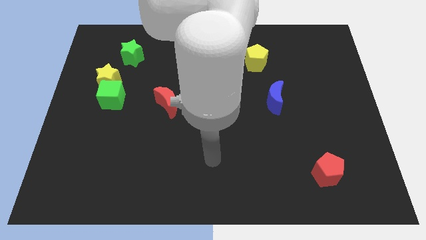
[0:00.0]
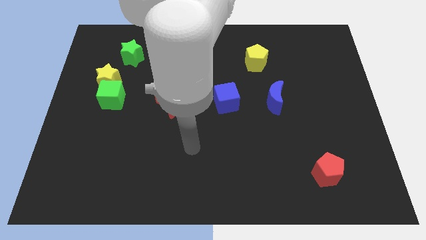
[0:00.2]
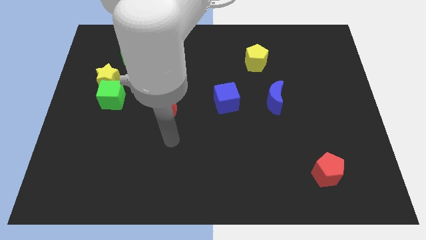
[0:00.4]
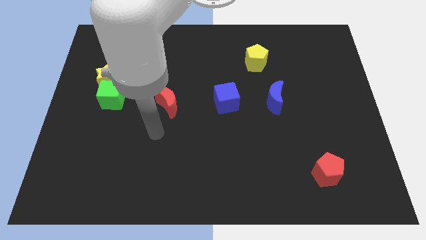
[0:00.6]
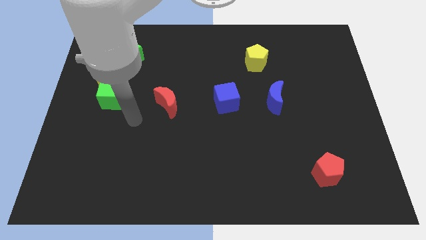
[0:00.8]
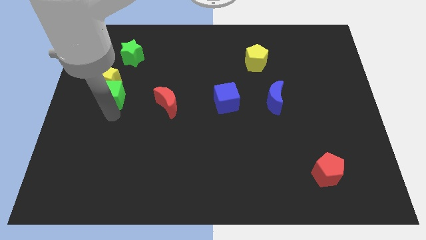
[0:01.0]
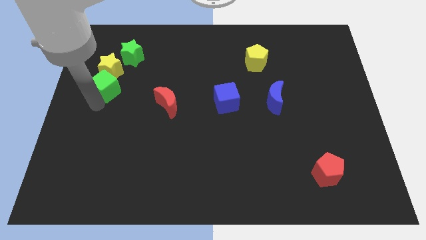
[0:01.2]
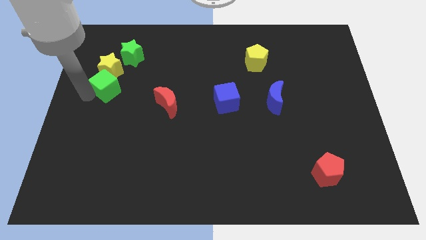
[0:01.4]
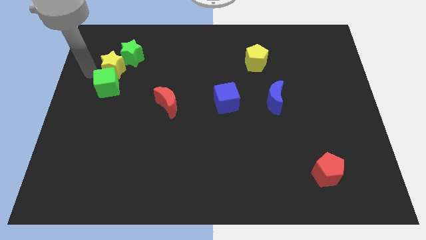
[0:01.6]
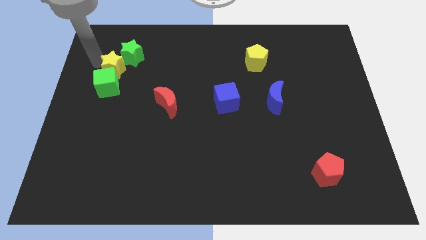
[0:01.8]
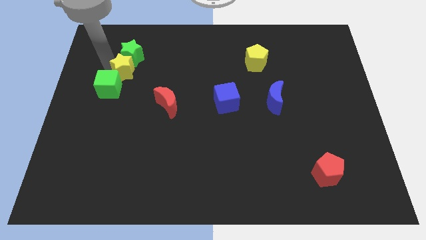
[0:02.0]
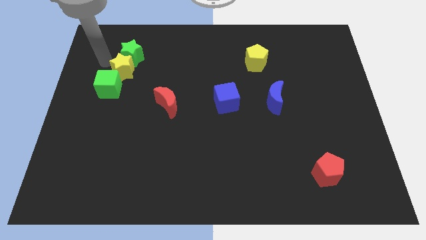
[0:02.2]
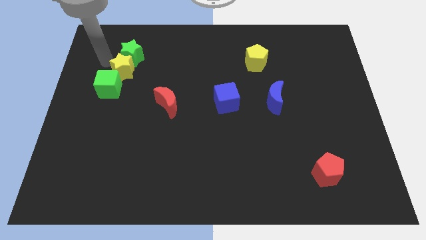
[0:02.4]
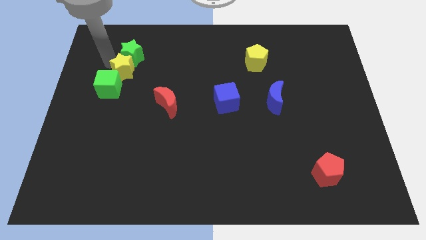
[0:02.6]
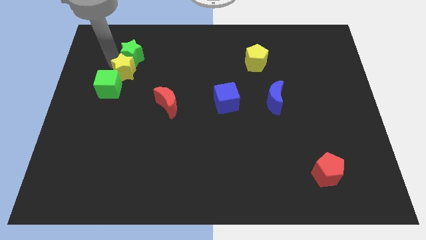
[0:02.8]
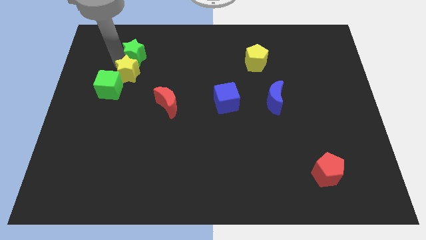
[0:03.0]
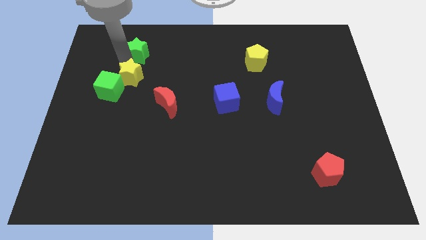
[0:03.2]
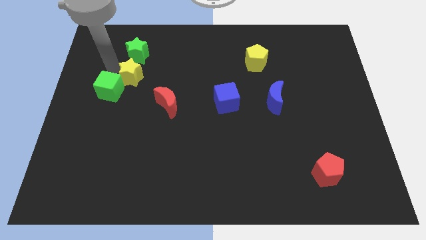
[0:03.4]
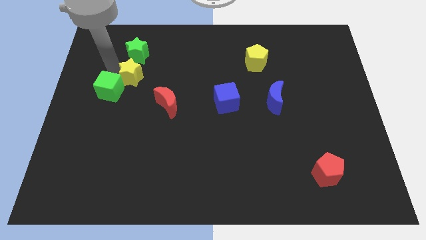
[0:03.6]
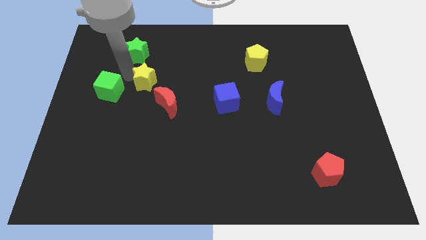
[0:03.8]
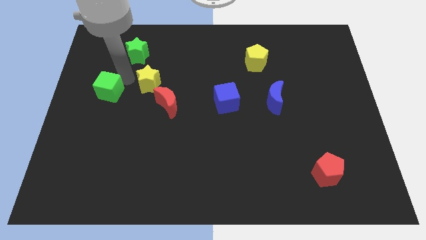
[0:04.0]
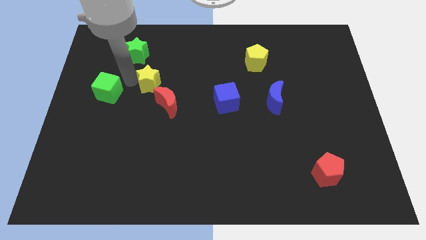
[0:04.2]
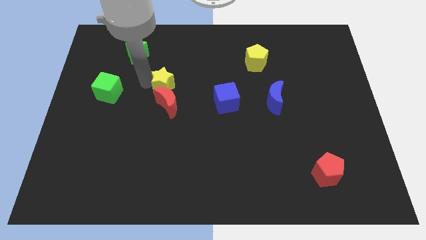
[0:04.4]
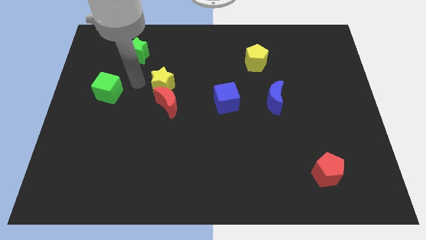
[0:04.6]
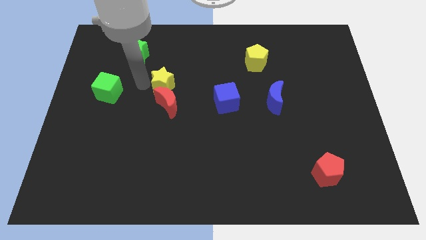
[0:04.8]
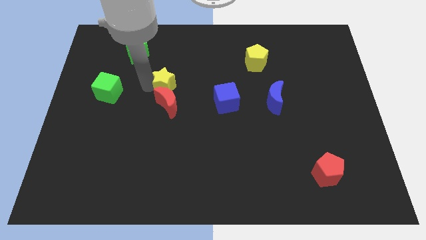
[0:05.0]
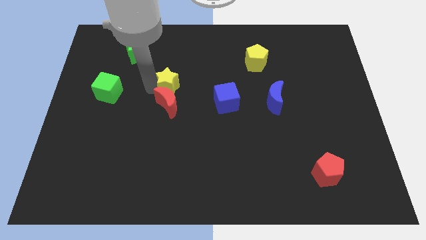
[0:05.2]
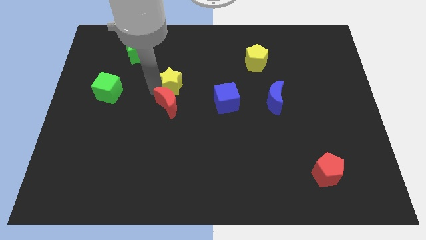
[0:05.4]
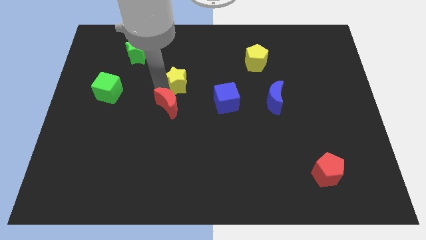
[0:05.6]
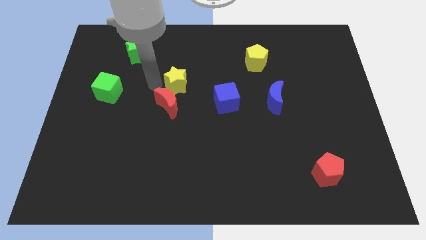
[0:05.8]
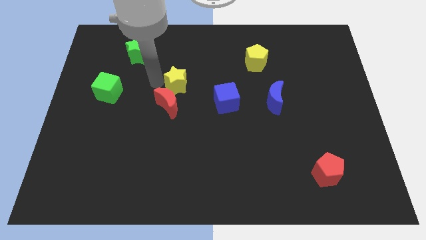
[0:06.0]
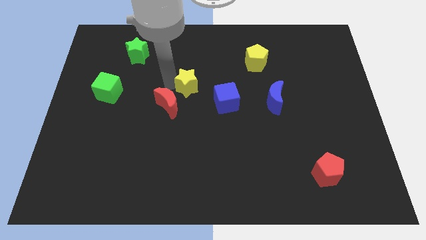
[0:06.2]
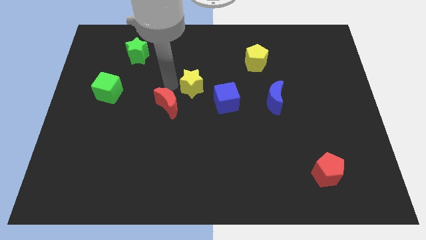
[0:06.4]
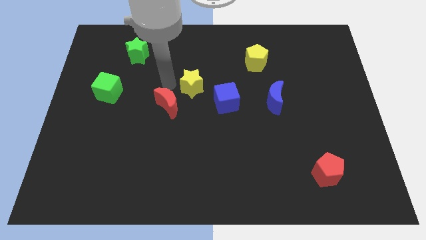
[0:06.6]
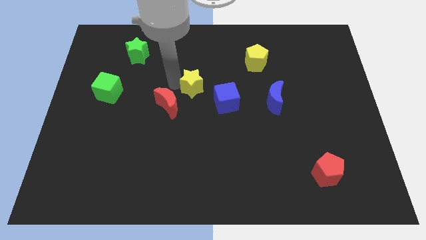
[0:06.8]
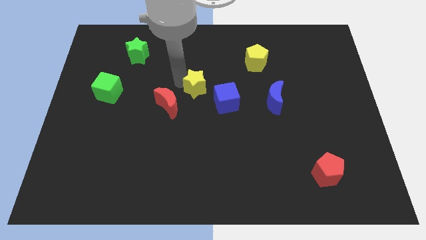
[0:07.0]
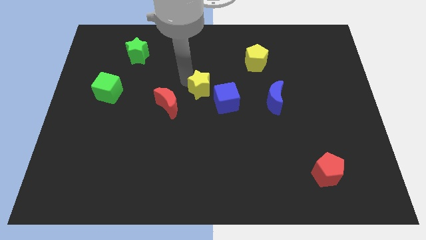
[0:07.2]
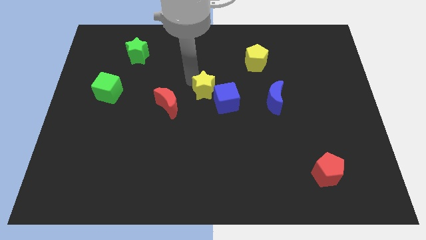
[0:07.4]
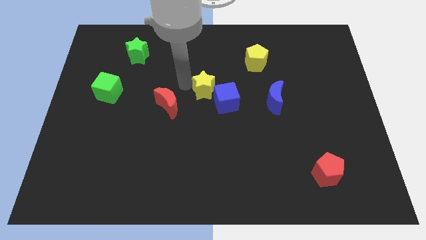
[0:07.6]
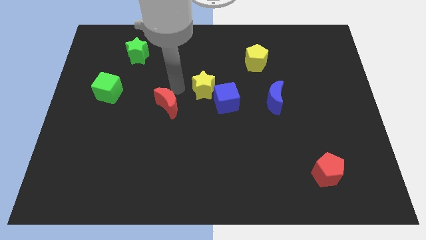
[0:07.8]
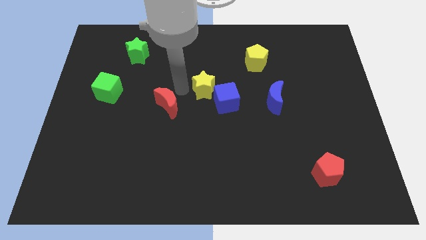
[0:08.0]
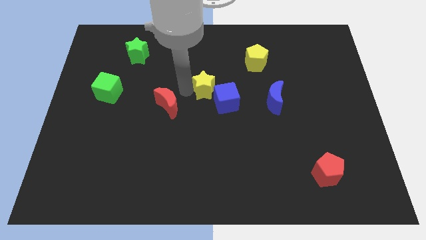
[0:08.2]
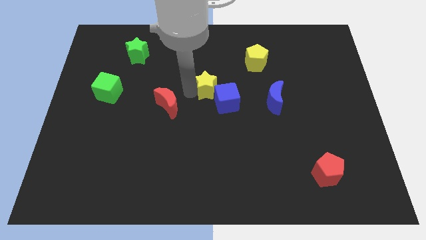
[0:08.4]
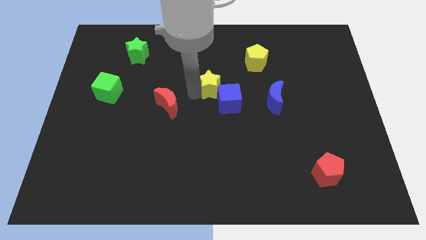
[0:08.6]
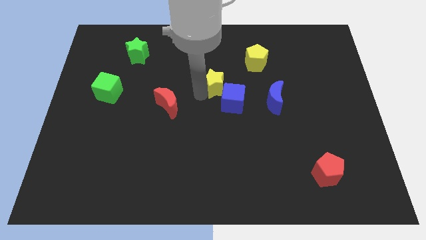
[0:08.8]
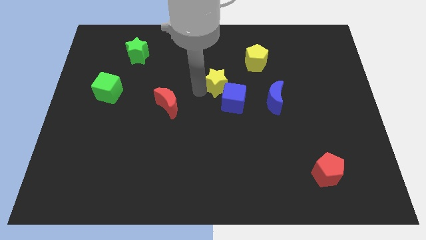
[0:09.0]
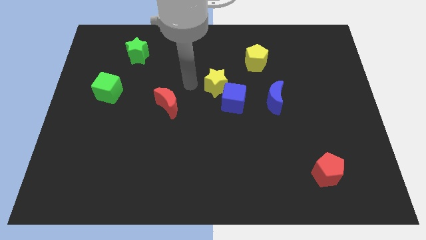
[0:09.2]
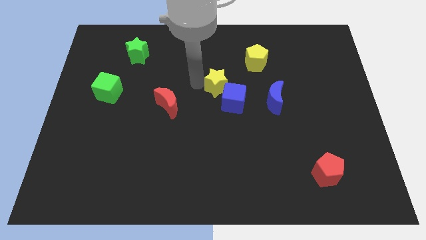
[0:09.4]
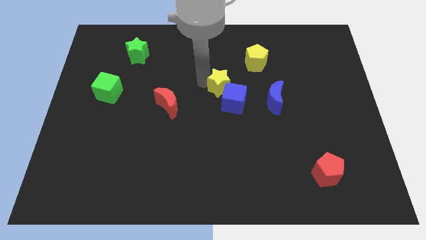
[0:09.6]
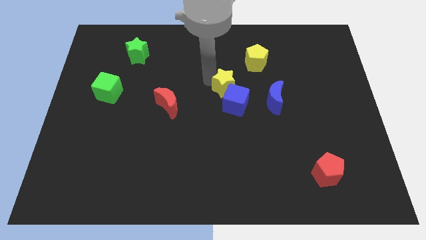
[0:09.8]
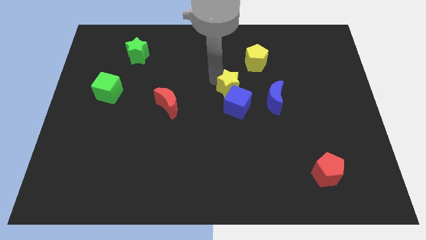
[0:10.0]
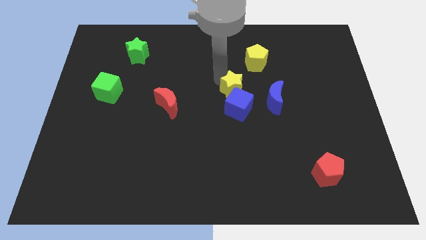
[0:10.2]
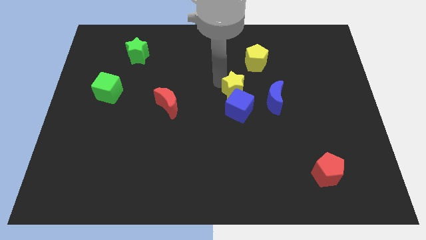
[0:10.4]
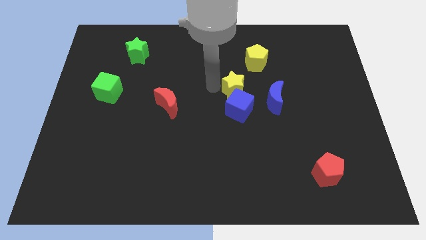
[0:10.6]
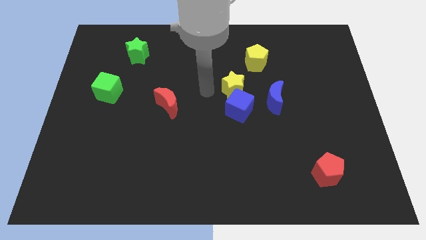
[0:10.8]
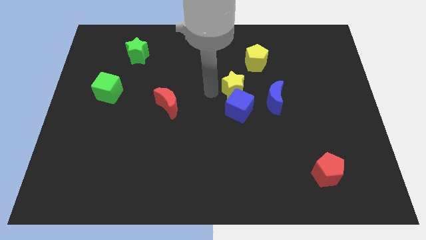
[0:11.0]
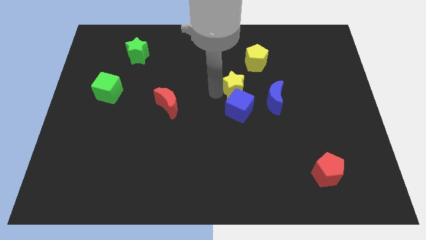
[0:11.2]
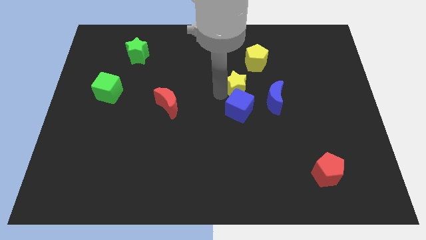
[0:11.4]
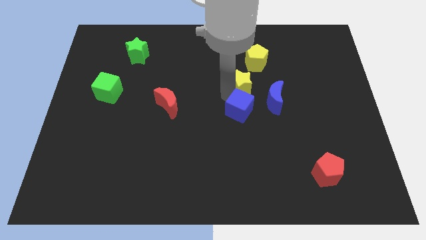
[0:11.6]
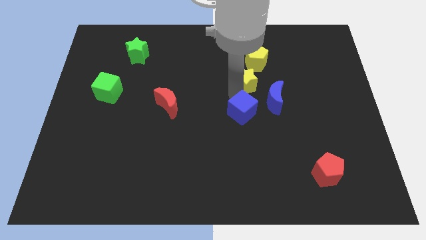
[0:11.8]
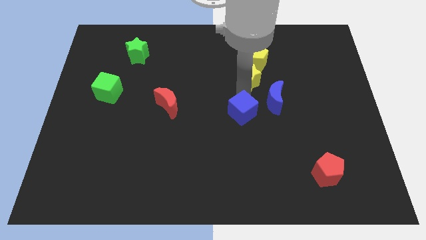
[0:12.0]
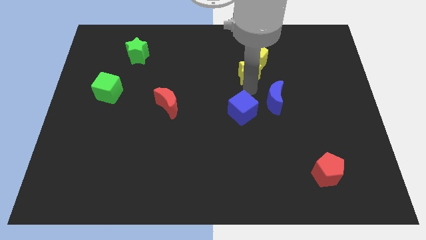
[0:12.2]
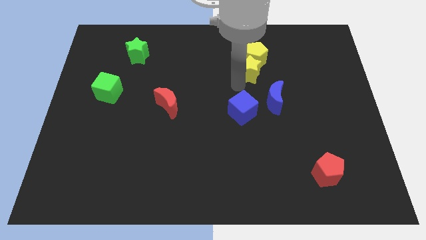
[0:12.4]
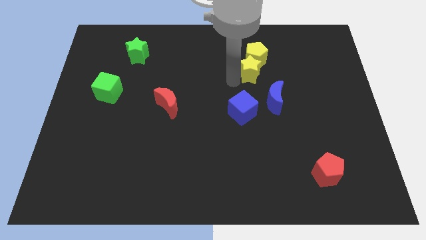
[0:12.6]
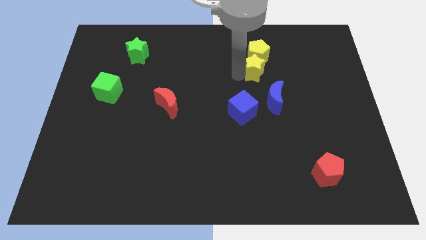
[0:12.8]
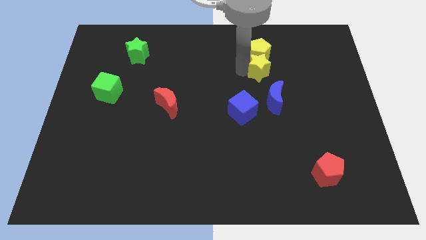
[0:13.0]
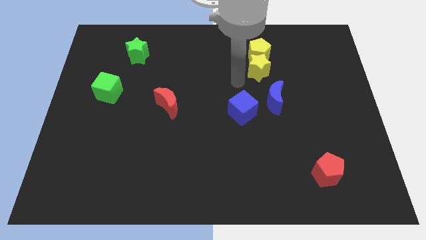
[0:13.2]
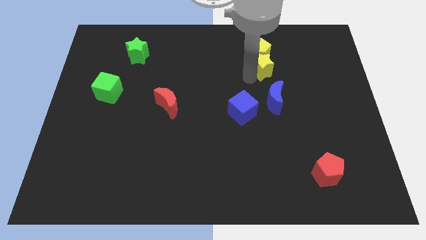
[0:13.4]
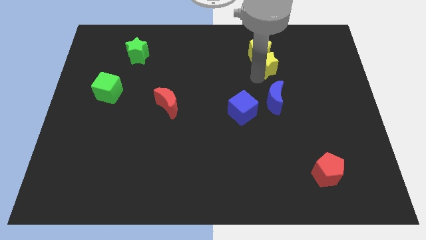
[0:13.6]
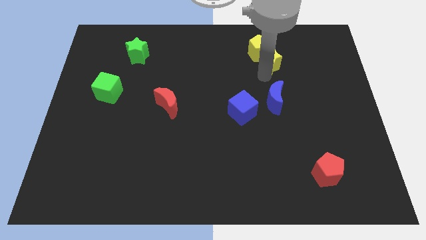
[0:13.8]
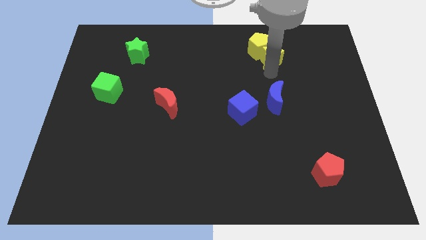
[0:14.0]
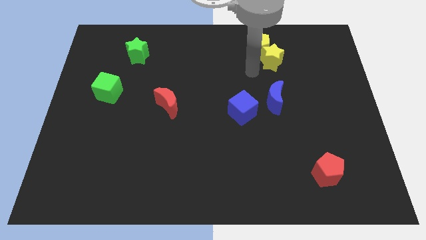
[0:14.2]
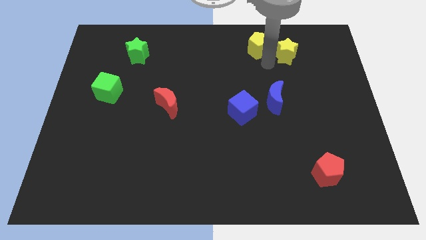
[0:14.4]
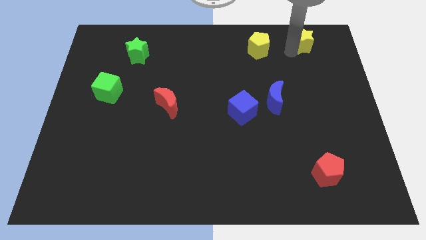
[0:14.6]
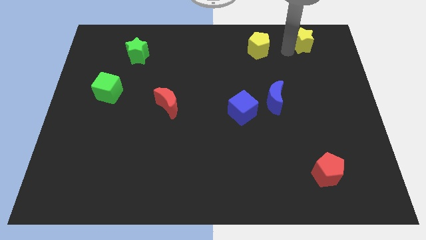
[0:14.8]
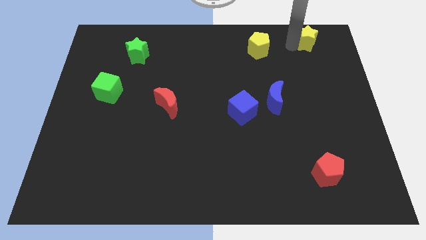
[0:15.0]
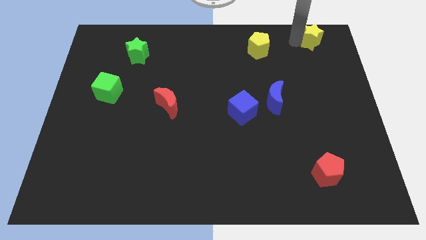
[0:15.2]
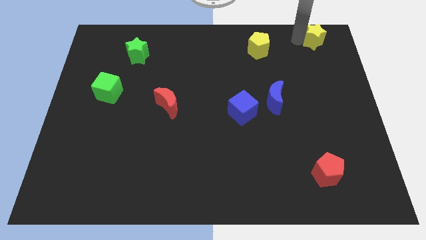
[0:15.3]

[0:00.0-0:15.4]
move the yellow star to the top right
